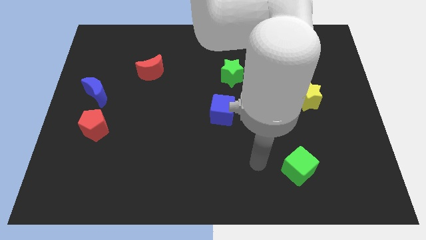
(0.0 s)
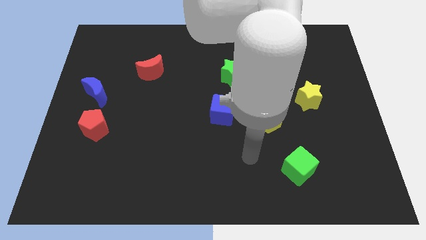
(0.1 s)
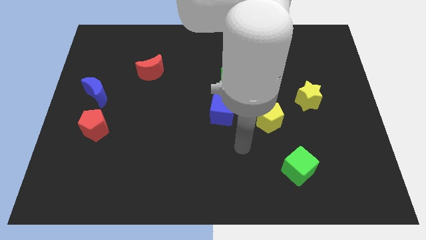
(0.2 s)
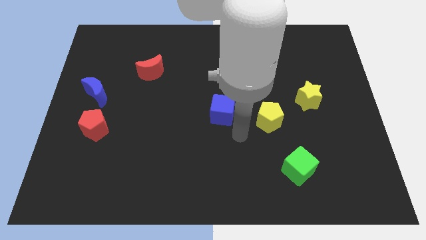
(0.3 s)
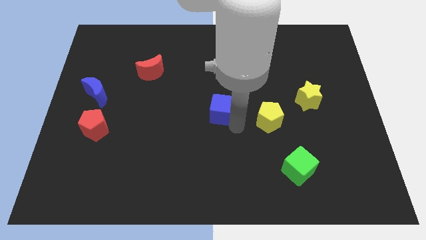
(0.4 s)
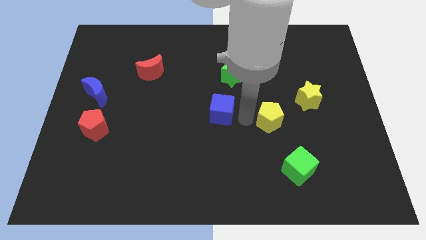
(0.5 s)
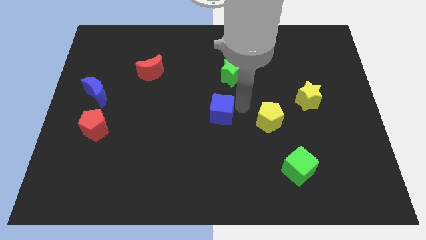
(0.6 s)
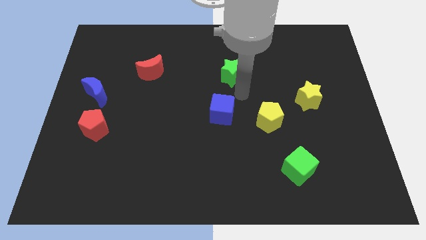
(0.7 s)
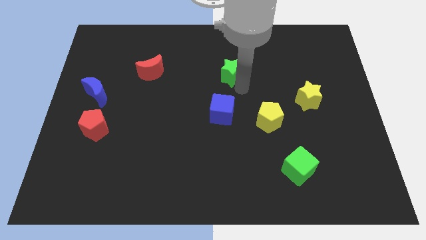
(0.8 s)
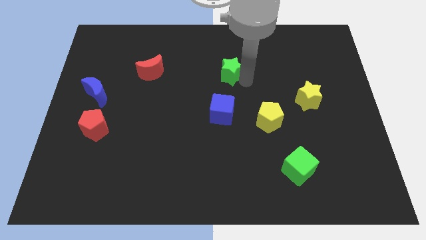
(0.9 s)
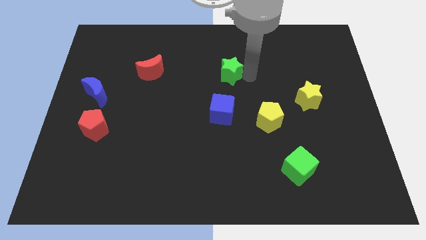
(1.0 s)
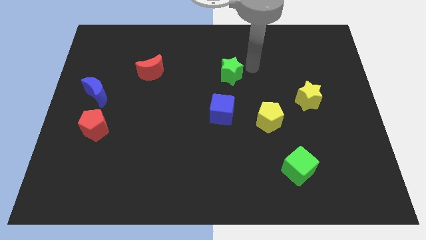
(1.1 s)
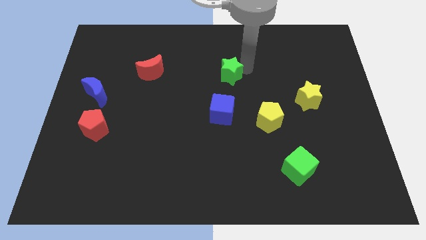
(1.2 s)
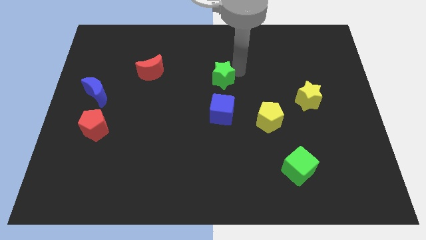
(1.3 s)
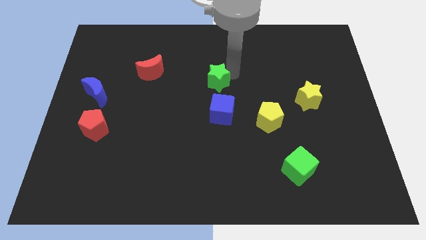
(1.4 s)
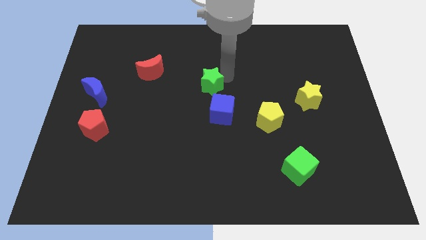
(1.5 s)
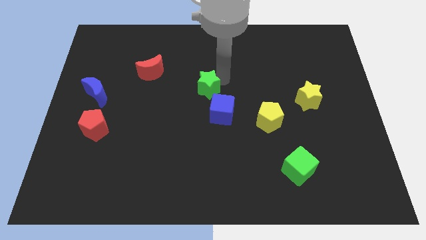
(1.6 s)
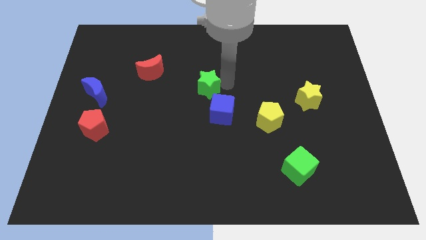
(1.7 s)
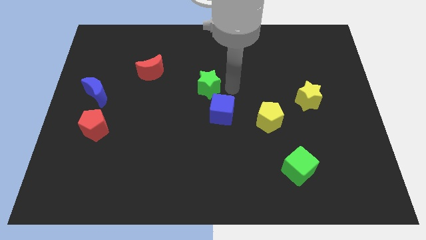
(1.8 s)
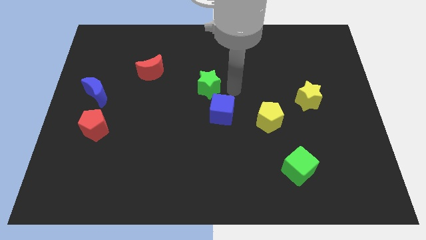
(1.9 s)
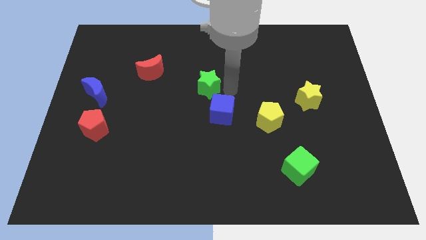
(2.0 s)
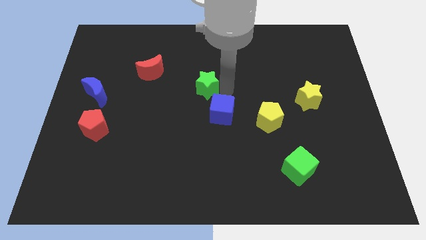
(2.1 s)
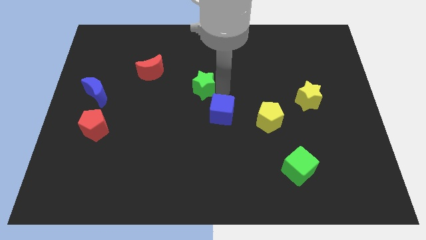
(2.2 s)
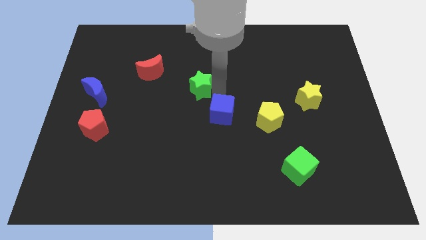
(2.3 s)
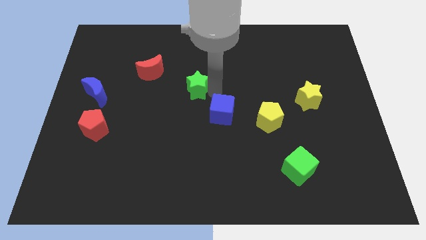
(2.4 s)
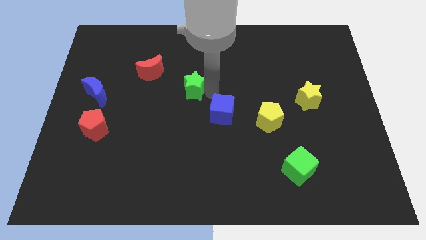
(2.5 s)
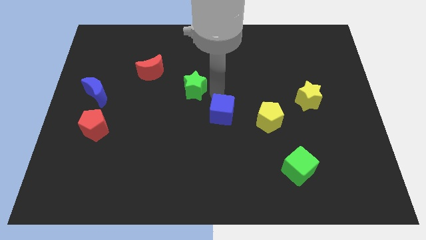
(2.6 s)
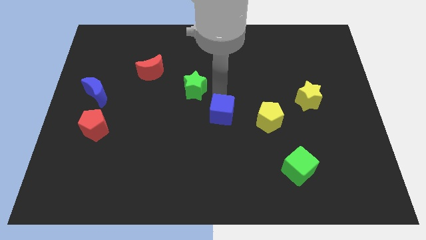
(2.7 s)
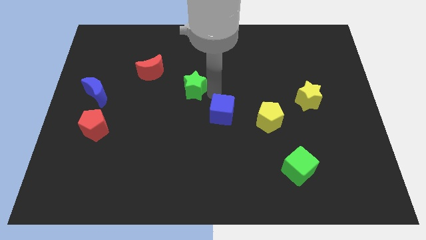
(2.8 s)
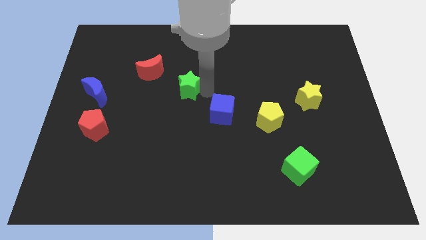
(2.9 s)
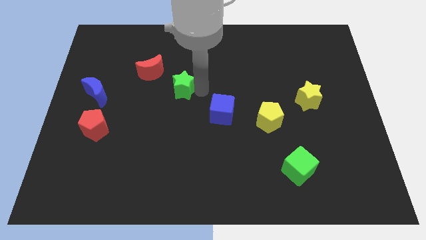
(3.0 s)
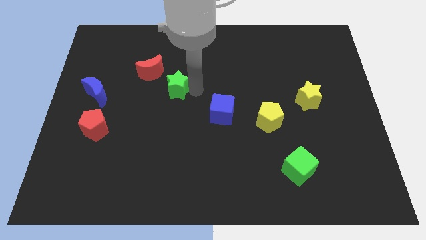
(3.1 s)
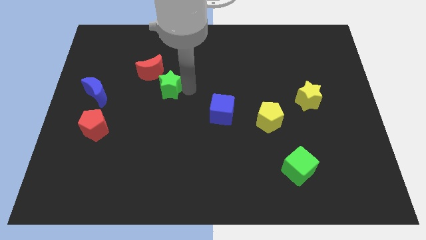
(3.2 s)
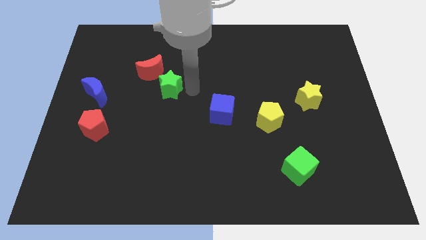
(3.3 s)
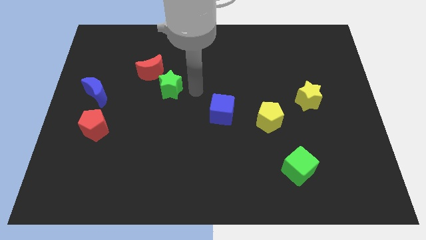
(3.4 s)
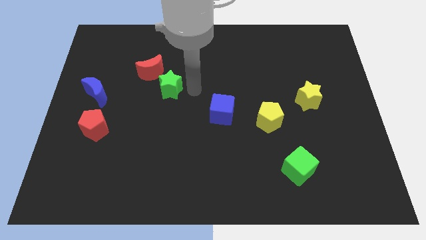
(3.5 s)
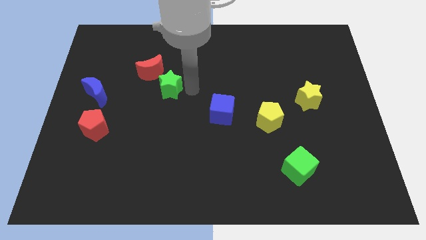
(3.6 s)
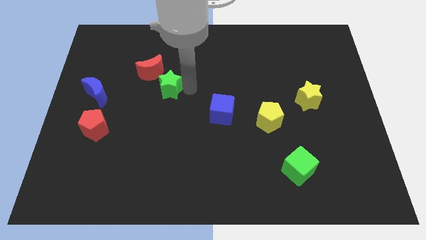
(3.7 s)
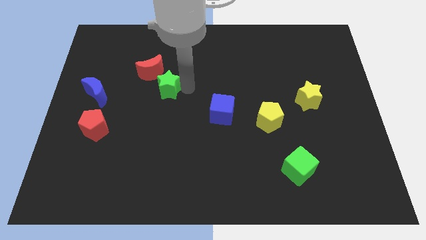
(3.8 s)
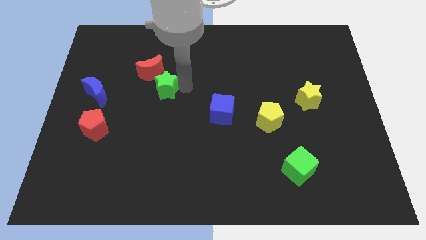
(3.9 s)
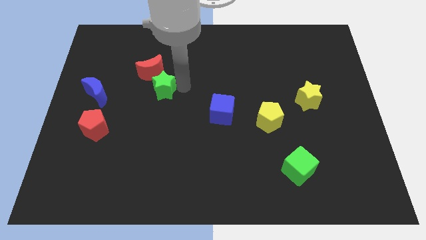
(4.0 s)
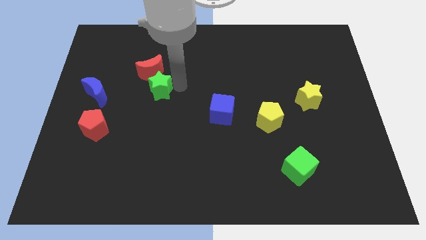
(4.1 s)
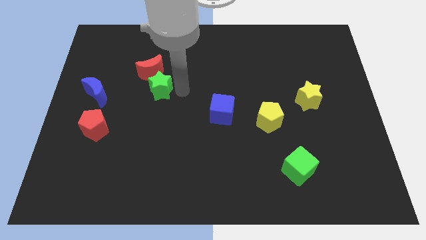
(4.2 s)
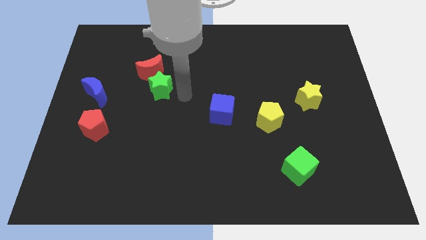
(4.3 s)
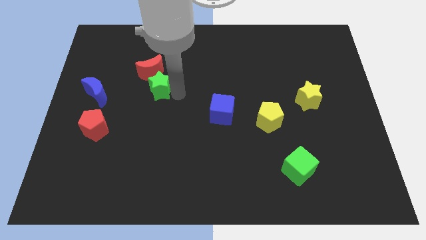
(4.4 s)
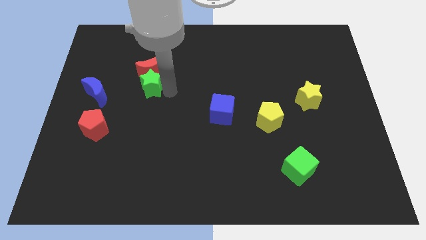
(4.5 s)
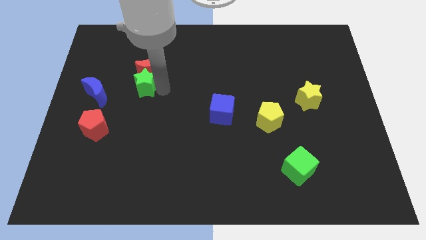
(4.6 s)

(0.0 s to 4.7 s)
push the green star left

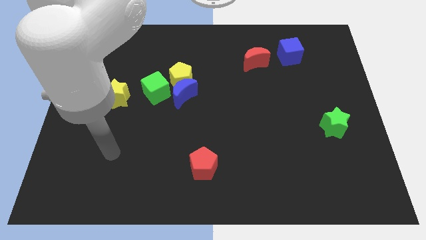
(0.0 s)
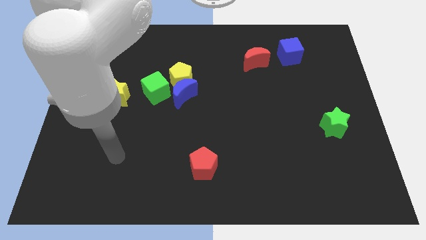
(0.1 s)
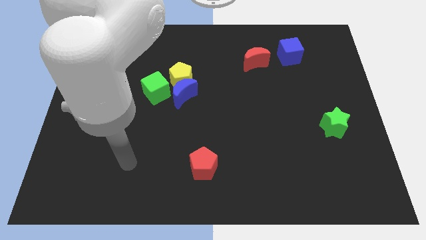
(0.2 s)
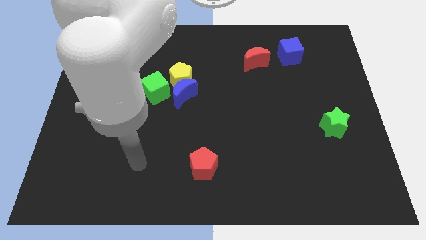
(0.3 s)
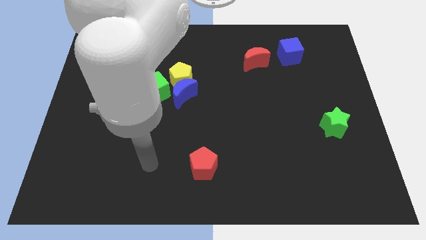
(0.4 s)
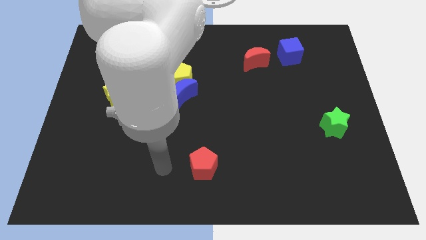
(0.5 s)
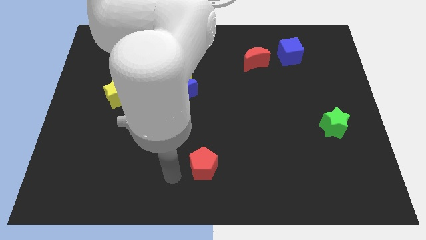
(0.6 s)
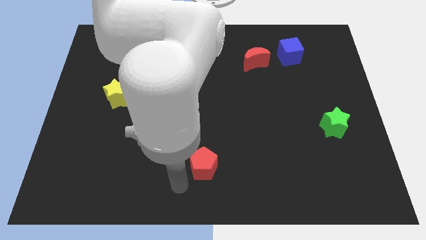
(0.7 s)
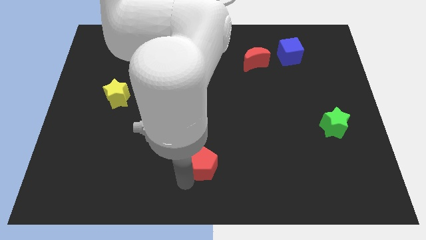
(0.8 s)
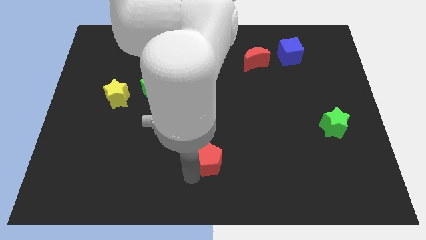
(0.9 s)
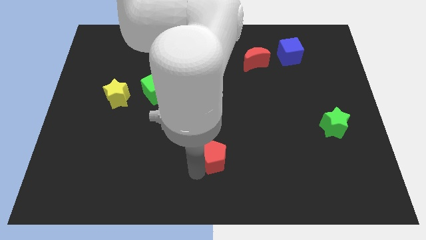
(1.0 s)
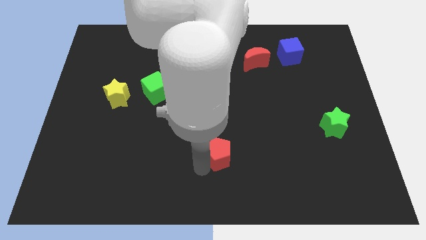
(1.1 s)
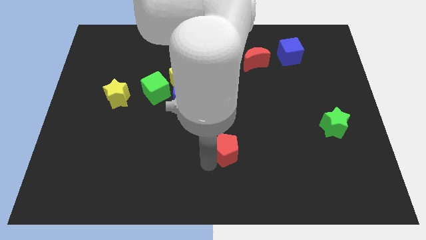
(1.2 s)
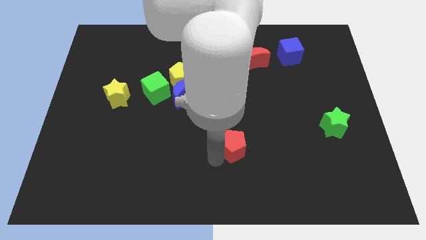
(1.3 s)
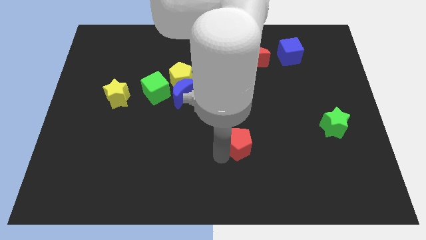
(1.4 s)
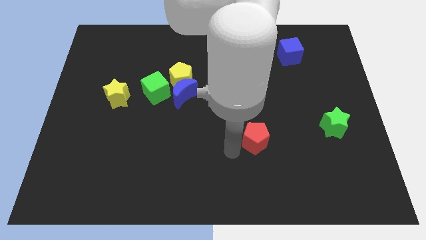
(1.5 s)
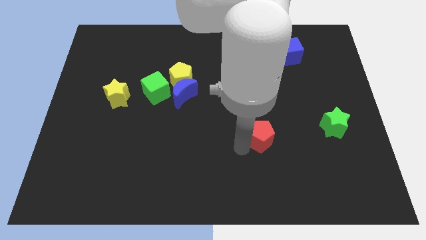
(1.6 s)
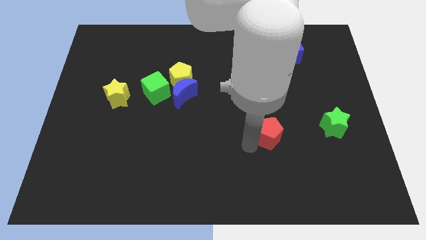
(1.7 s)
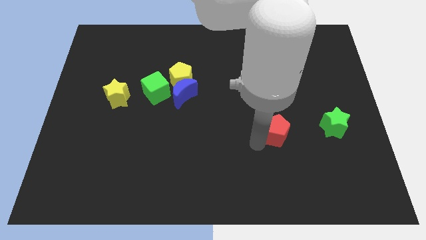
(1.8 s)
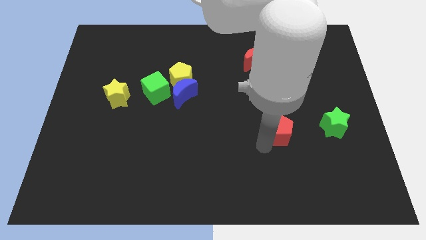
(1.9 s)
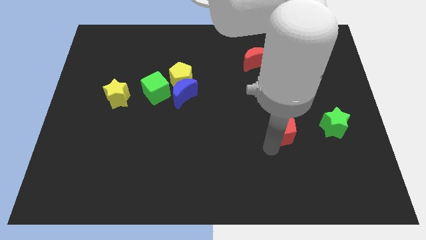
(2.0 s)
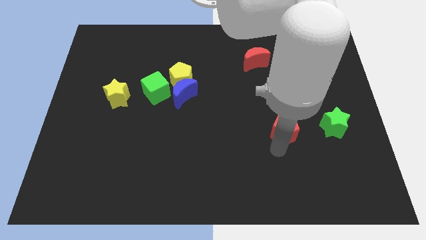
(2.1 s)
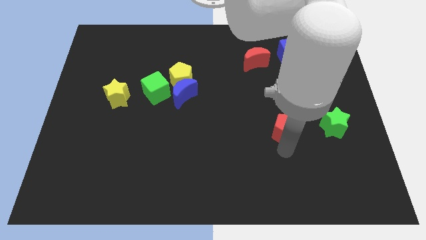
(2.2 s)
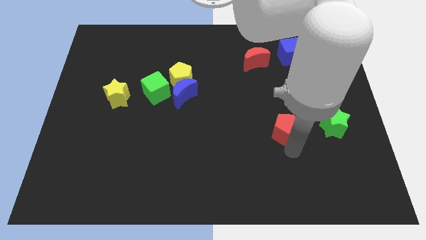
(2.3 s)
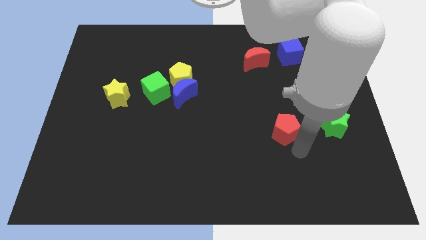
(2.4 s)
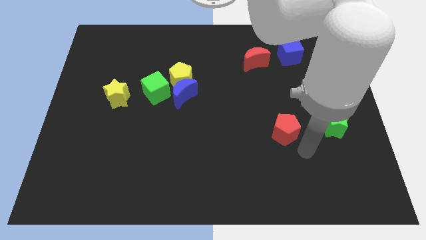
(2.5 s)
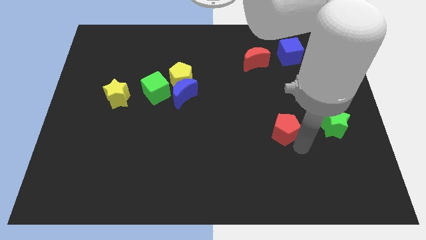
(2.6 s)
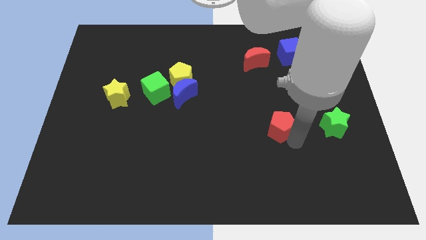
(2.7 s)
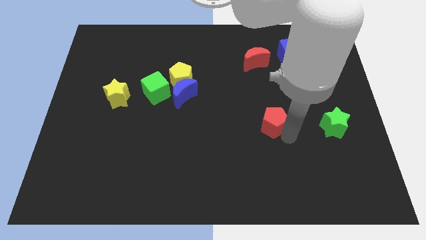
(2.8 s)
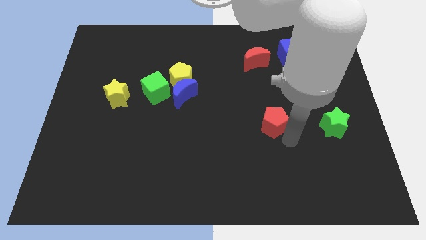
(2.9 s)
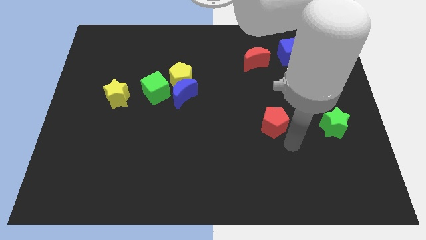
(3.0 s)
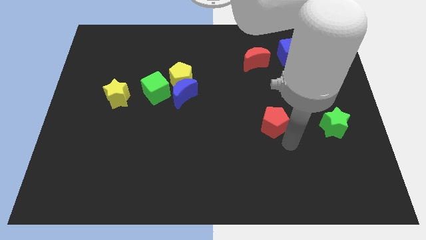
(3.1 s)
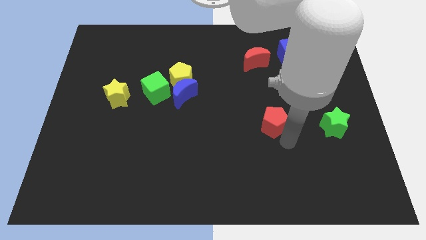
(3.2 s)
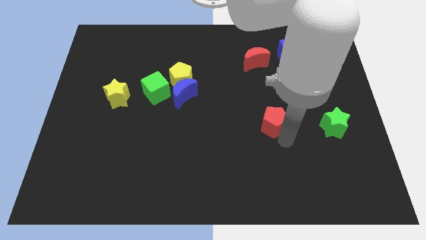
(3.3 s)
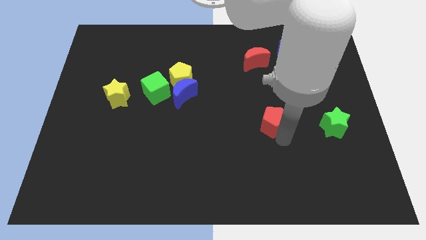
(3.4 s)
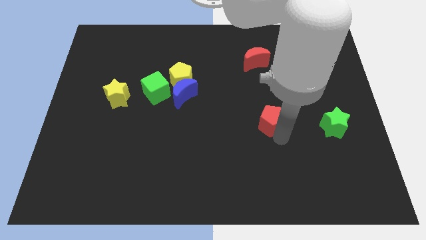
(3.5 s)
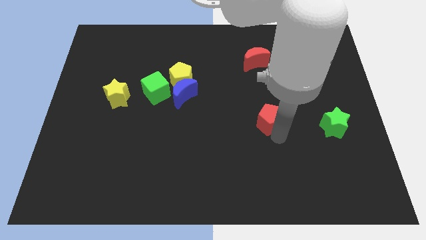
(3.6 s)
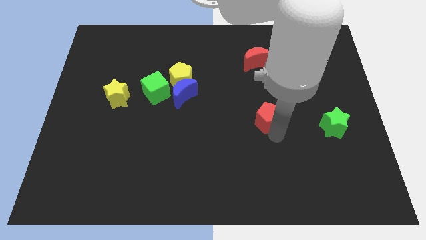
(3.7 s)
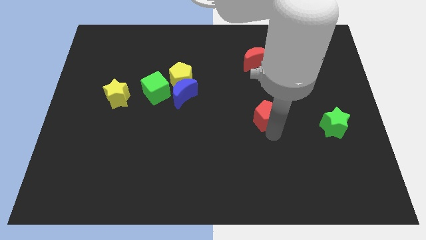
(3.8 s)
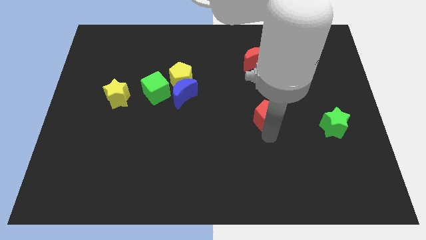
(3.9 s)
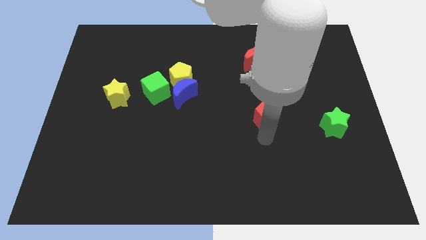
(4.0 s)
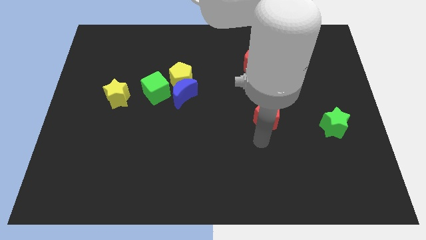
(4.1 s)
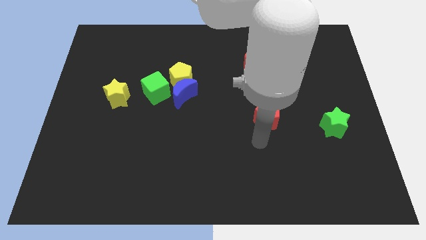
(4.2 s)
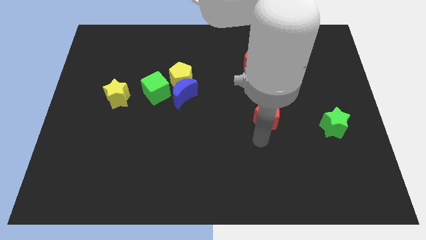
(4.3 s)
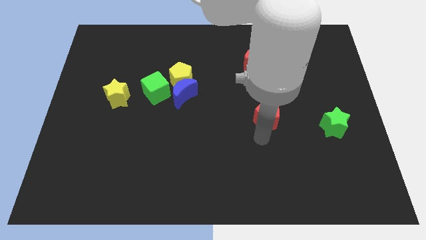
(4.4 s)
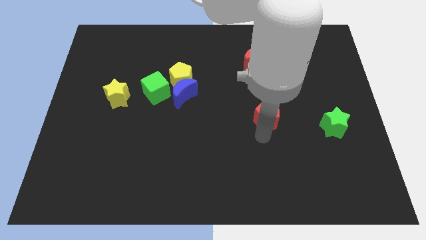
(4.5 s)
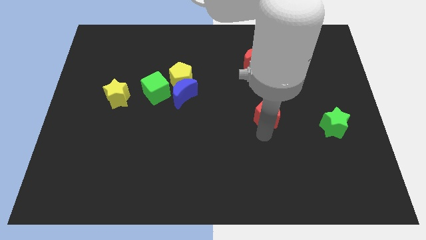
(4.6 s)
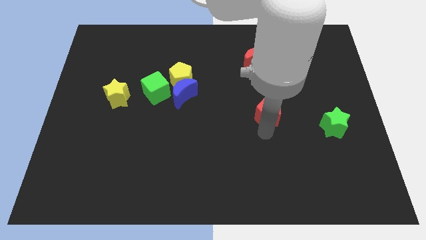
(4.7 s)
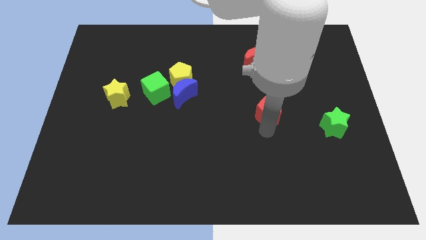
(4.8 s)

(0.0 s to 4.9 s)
push the red pentagon up and right diagonally
